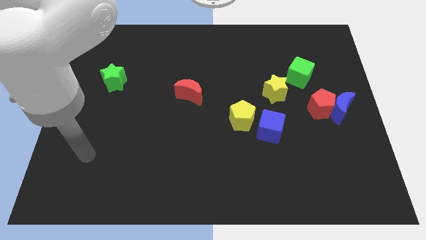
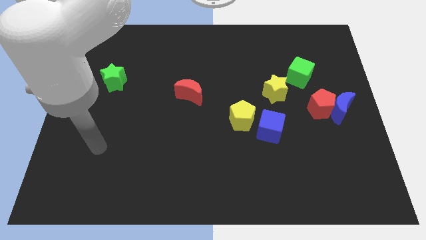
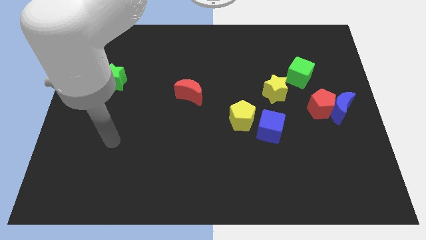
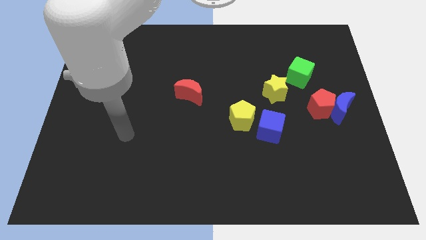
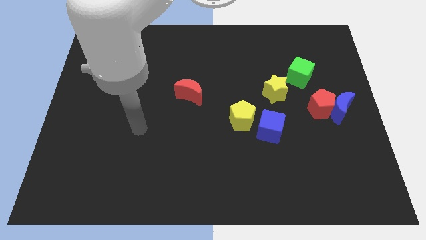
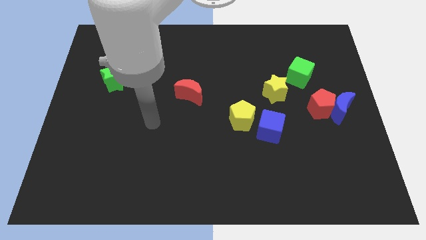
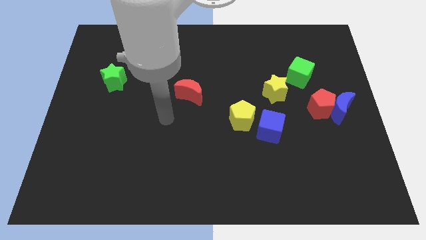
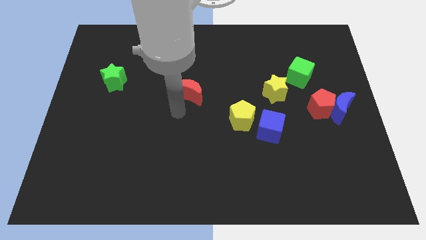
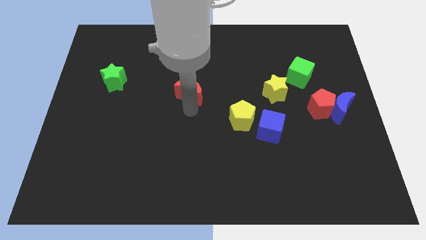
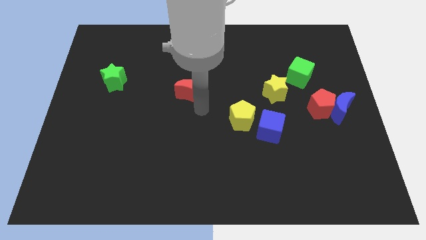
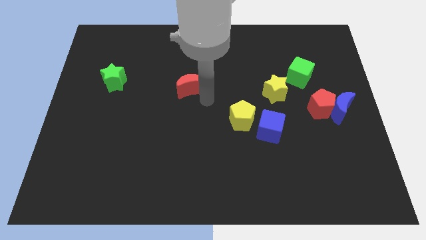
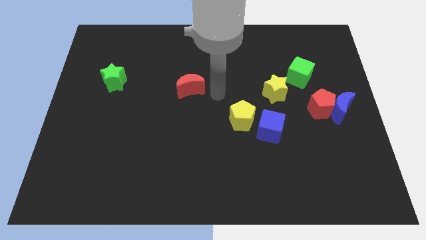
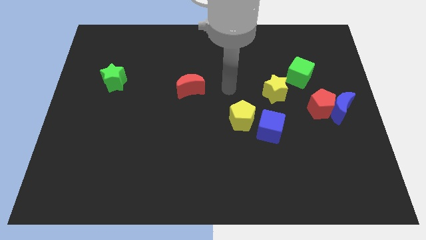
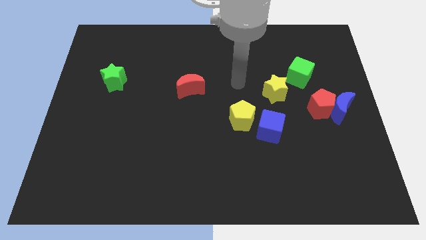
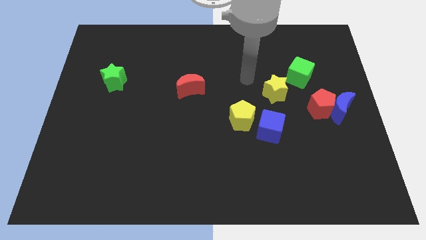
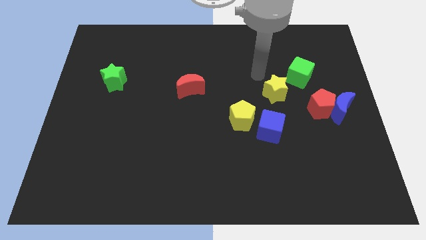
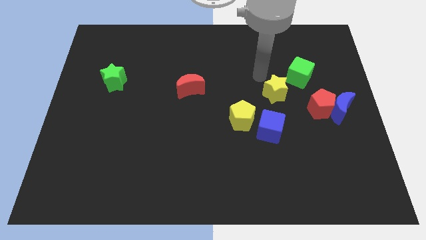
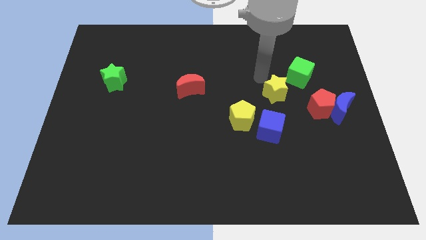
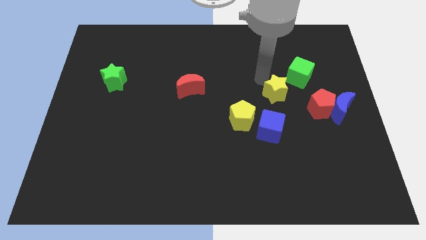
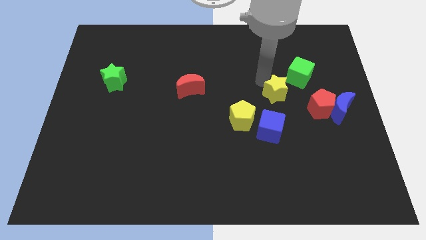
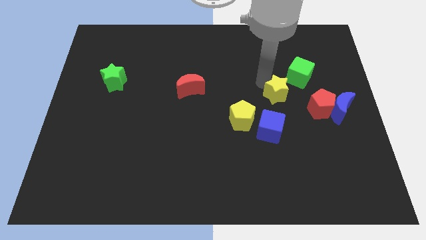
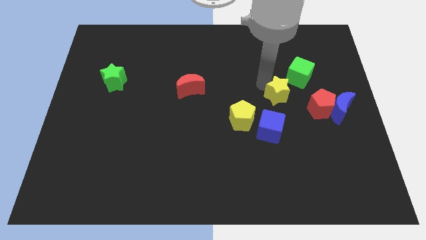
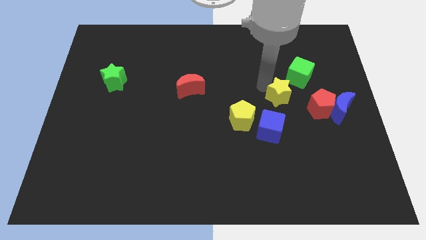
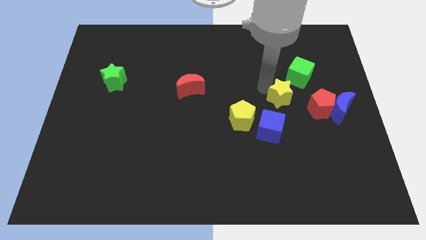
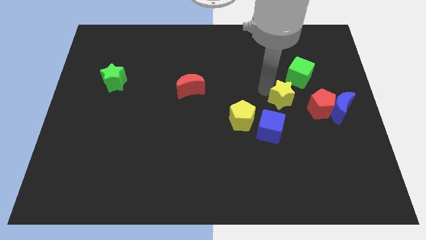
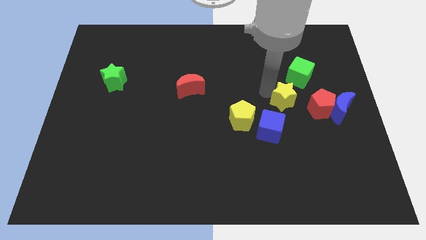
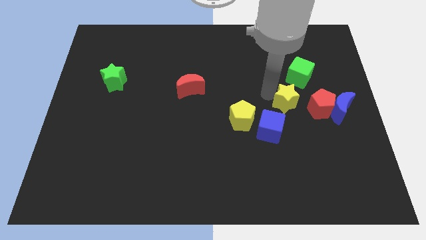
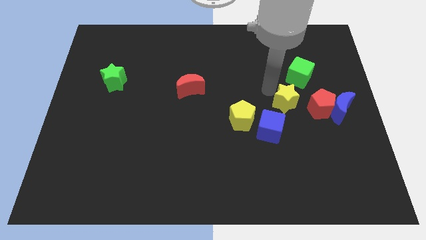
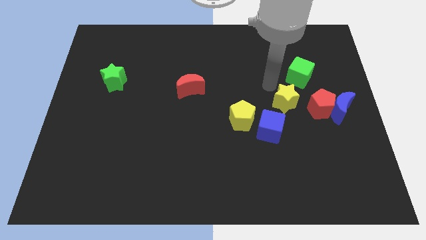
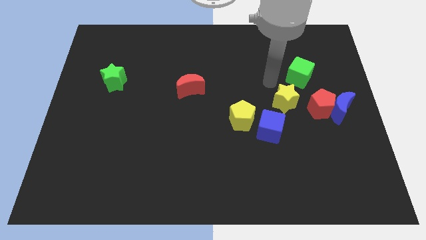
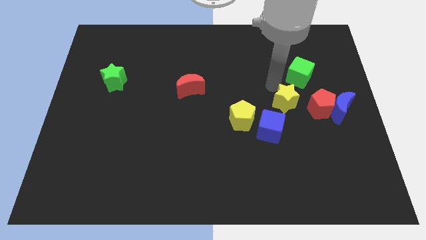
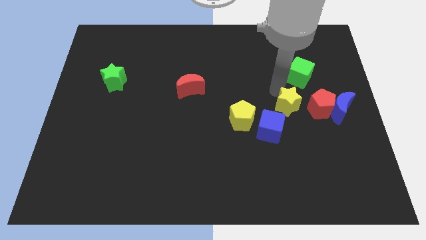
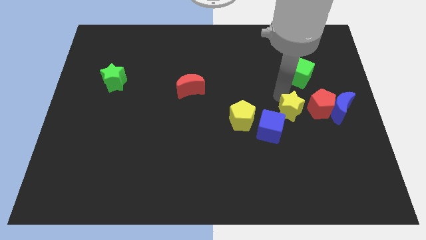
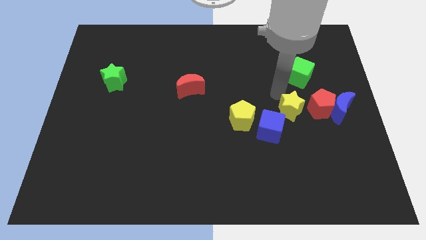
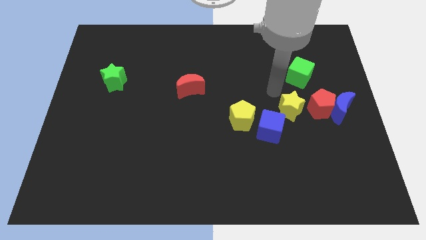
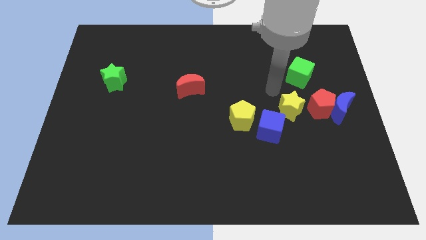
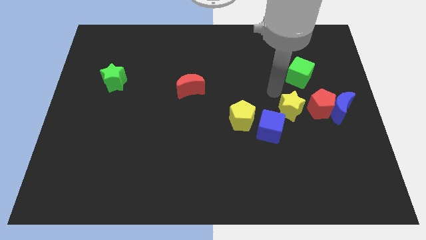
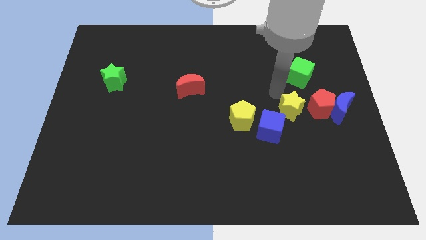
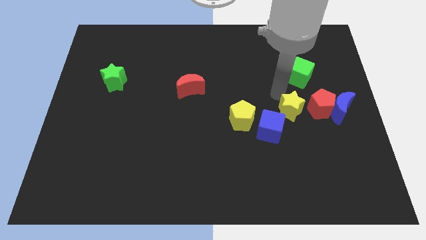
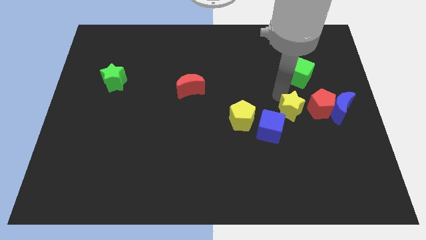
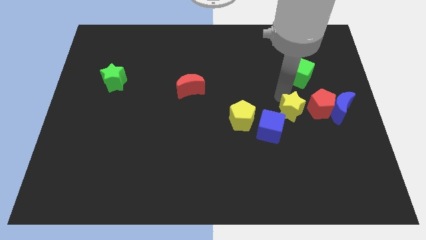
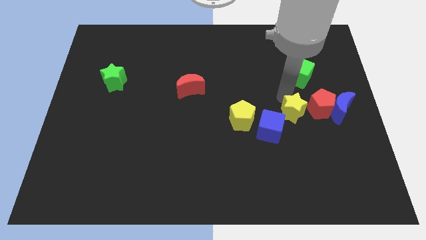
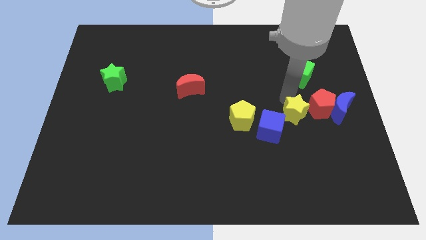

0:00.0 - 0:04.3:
slightly move the yellow star diagonally downwards and right

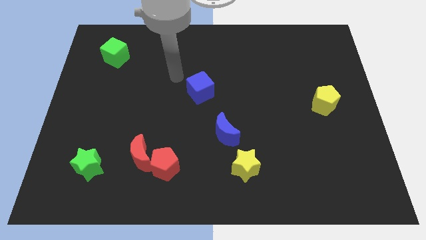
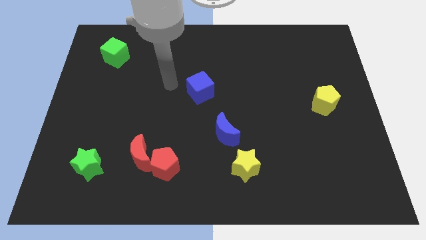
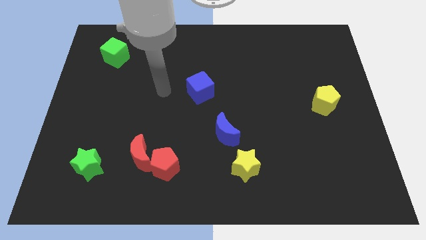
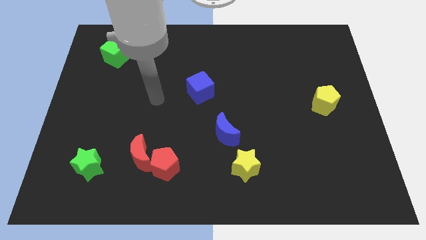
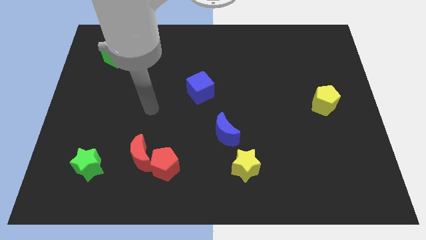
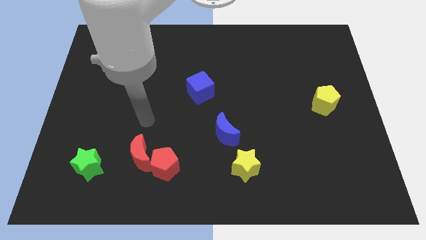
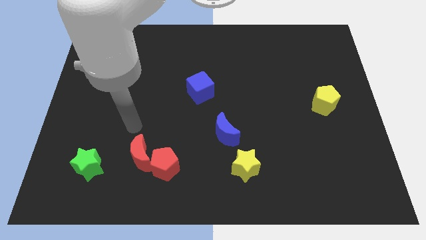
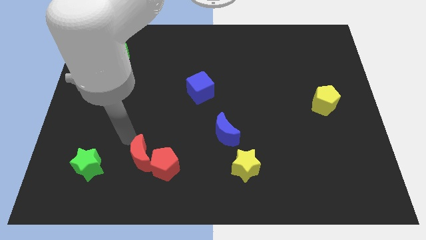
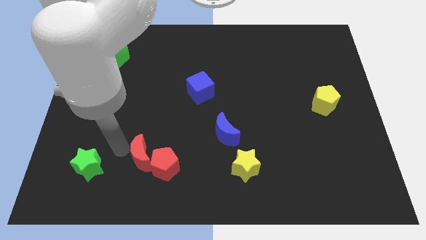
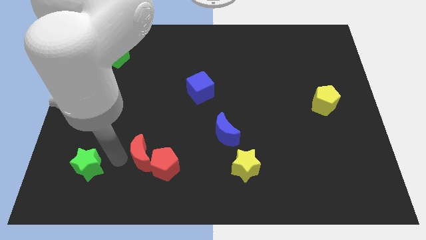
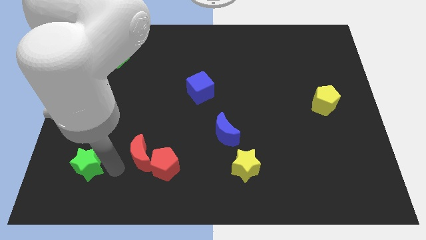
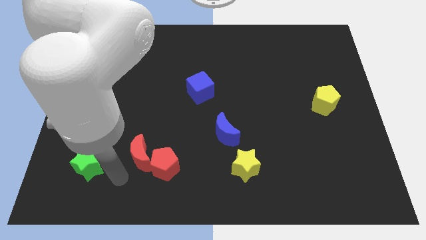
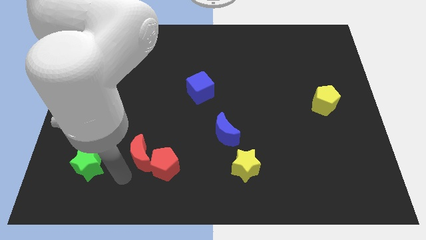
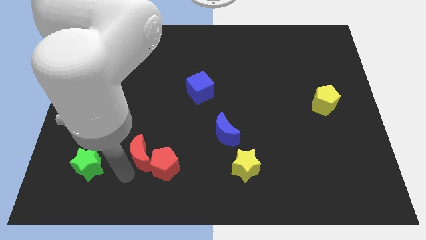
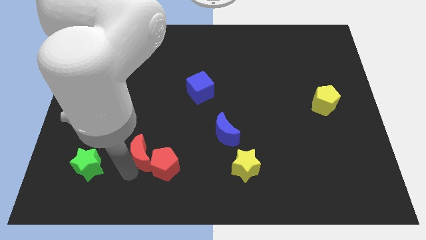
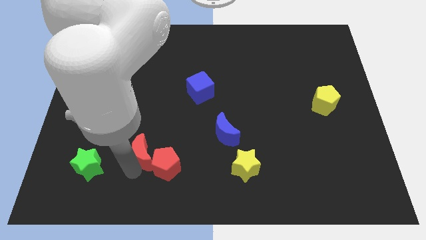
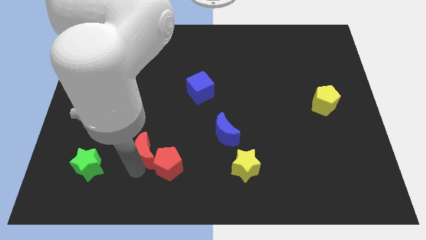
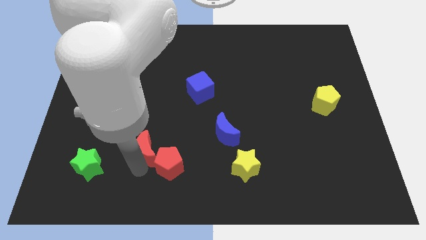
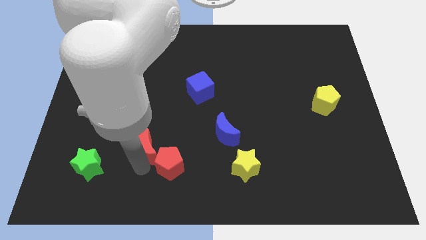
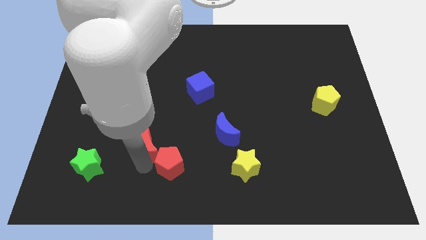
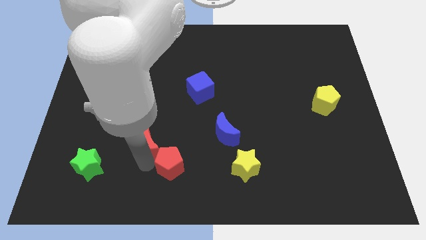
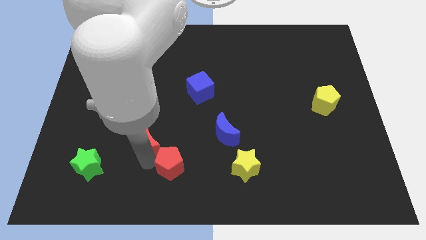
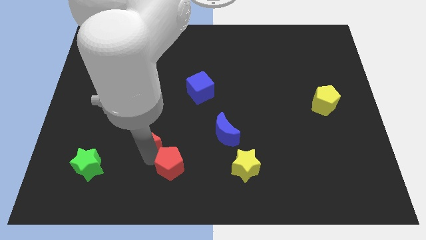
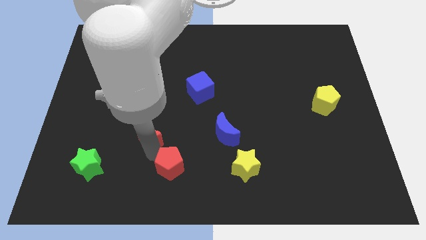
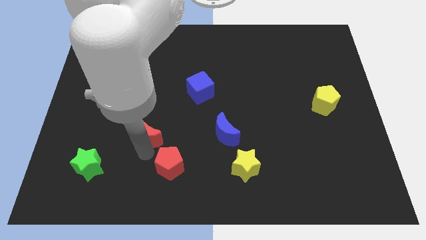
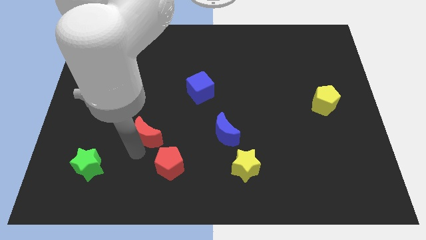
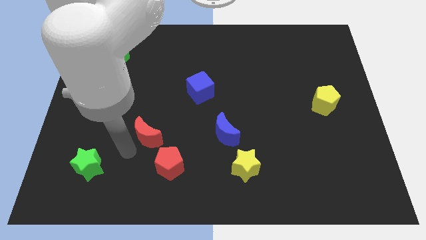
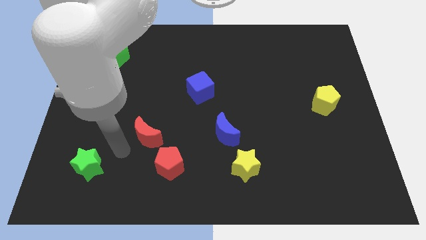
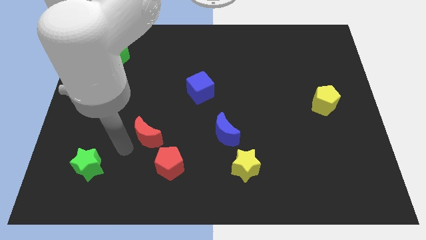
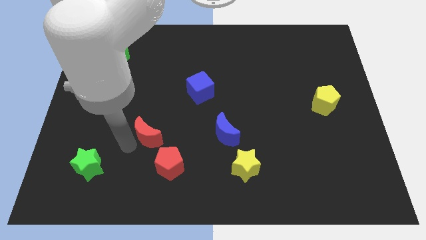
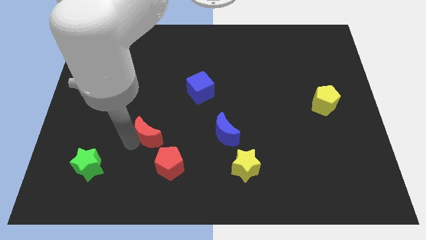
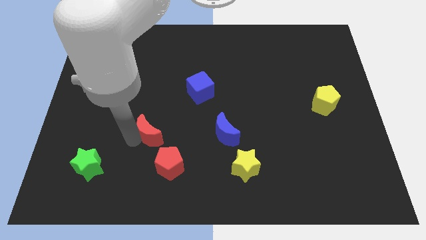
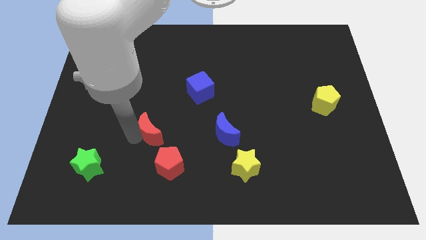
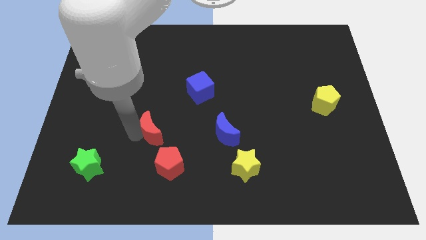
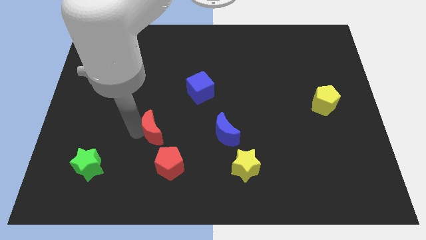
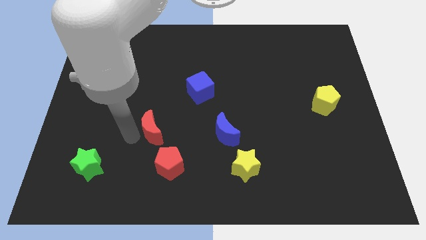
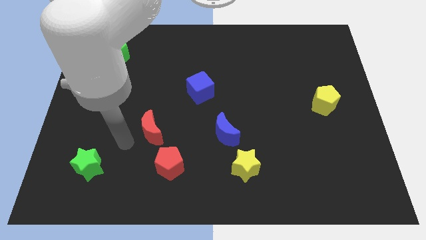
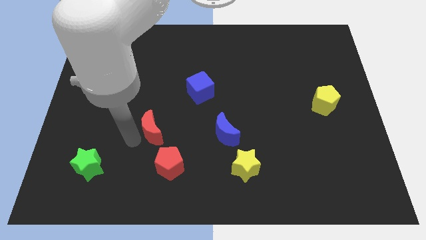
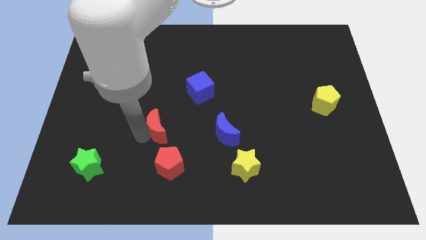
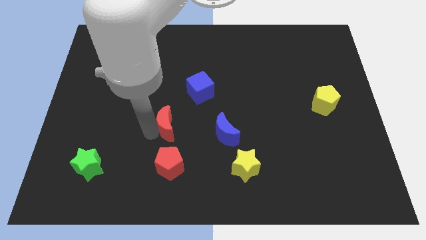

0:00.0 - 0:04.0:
slide the red moon a little bit diagonally upwards and right
